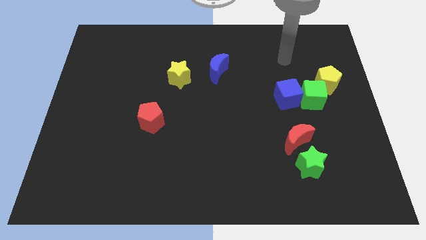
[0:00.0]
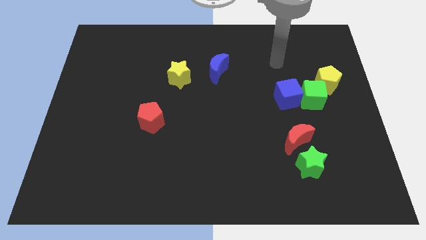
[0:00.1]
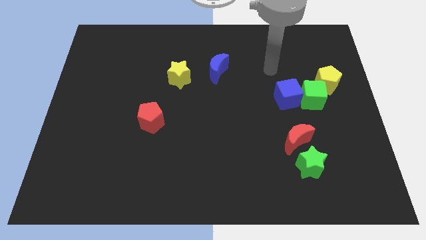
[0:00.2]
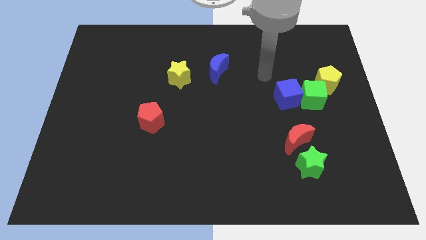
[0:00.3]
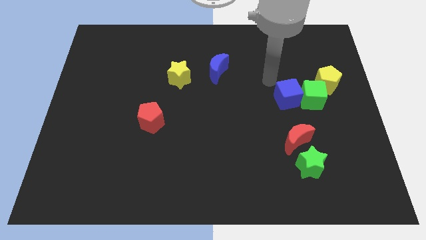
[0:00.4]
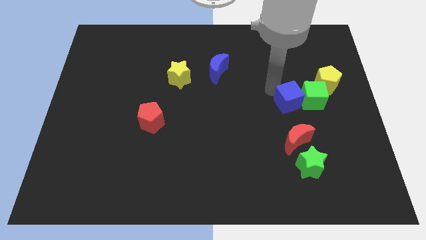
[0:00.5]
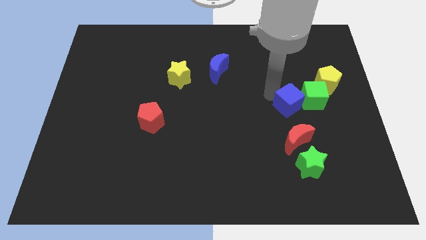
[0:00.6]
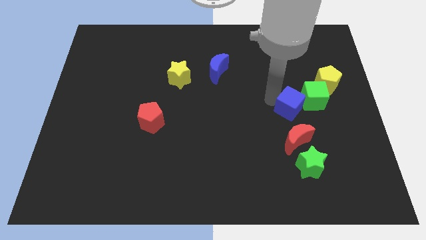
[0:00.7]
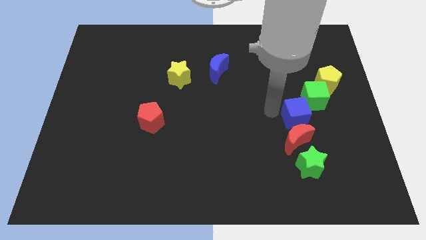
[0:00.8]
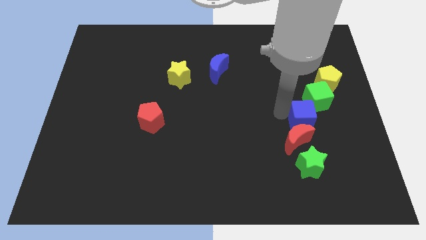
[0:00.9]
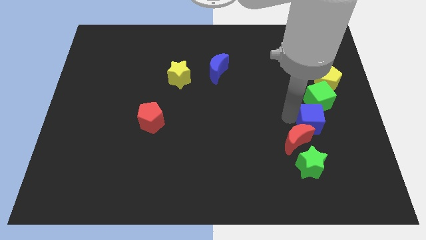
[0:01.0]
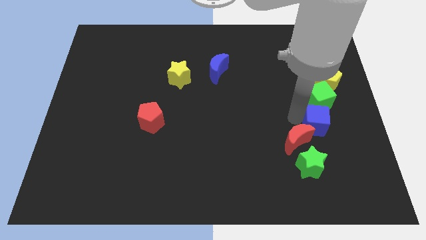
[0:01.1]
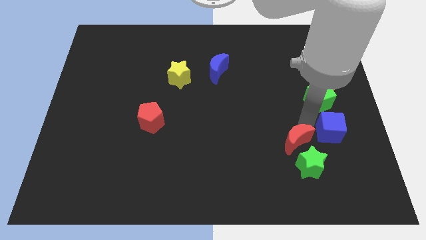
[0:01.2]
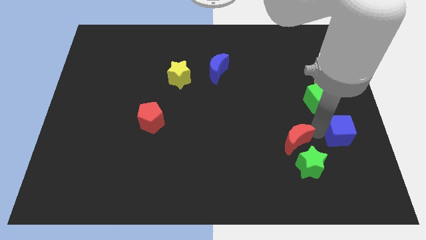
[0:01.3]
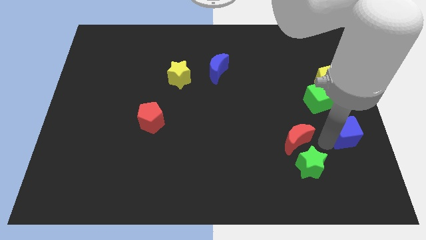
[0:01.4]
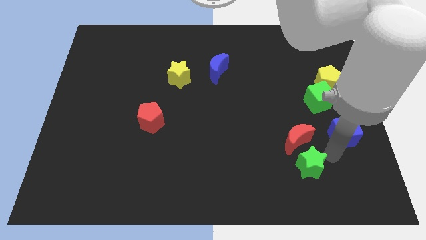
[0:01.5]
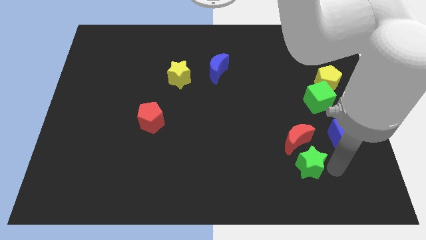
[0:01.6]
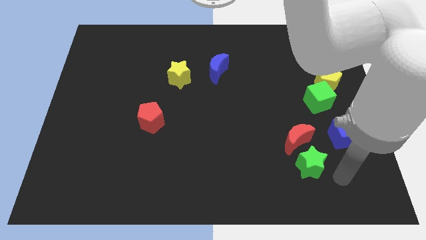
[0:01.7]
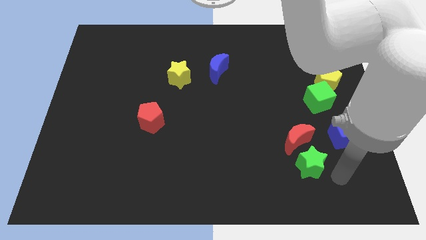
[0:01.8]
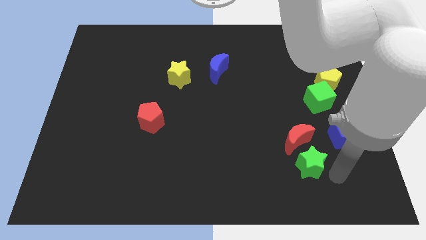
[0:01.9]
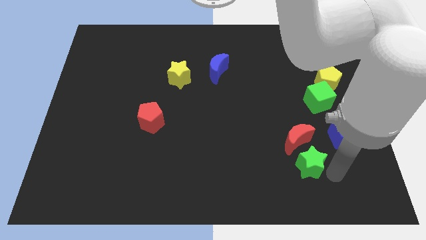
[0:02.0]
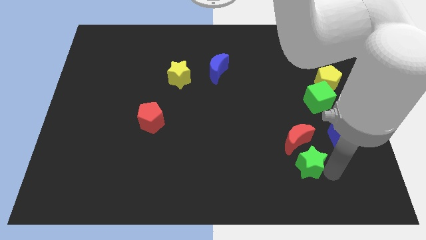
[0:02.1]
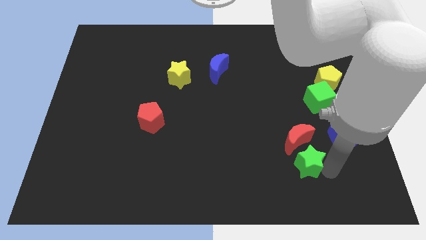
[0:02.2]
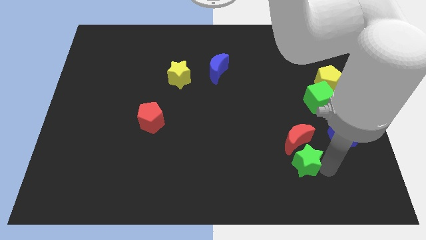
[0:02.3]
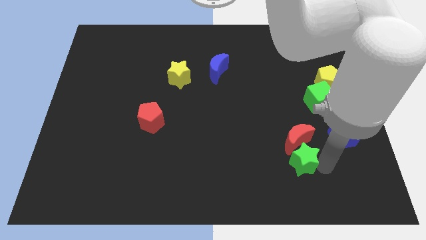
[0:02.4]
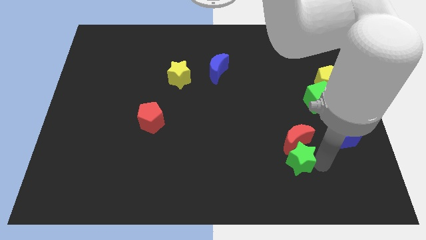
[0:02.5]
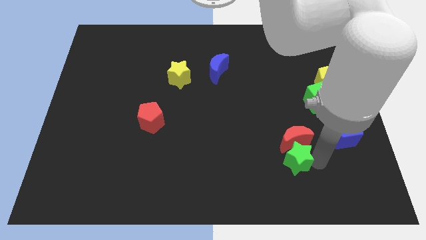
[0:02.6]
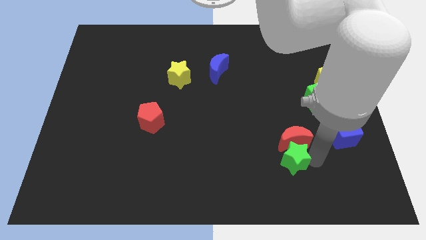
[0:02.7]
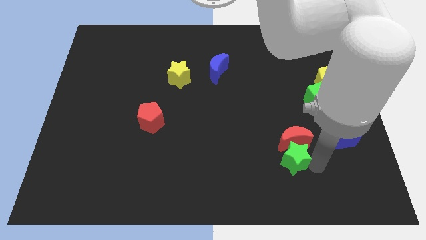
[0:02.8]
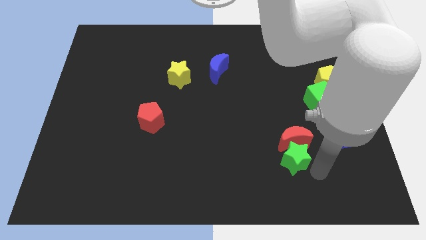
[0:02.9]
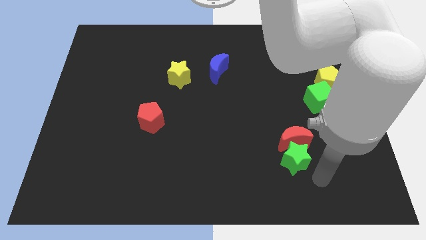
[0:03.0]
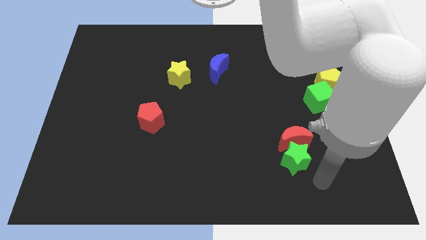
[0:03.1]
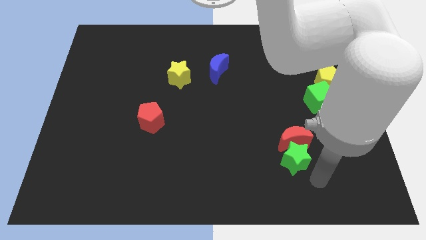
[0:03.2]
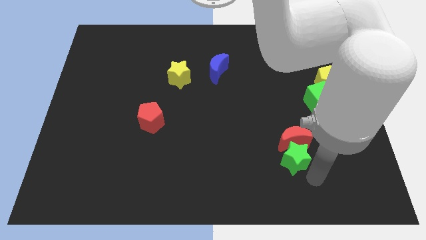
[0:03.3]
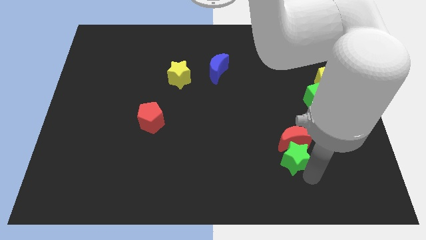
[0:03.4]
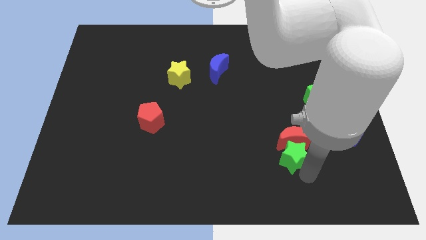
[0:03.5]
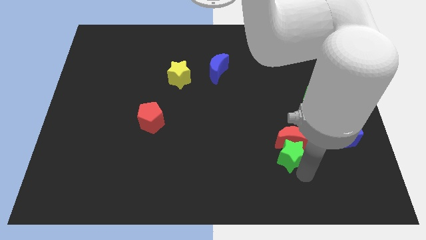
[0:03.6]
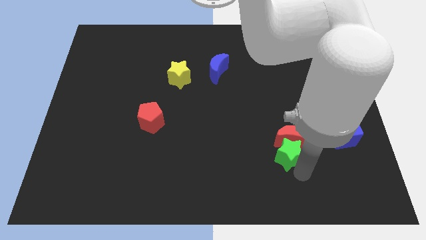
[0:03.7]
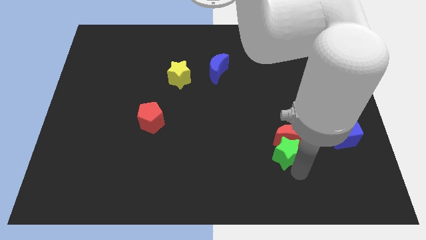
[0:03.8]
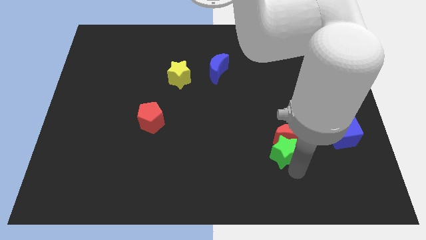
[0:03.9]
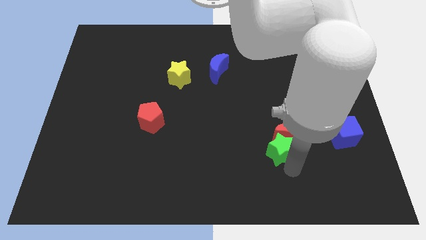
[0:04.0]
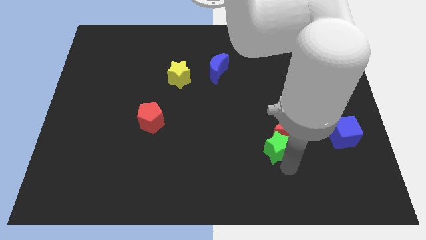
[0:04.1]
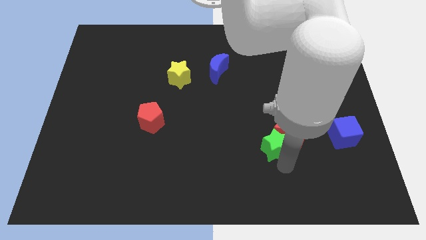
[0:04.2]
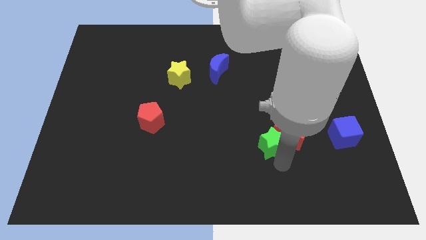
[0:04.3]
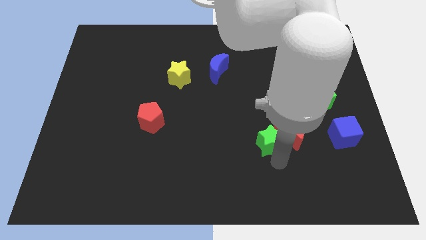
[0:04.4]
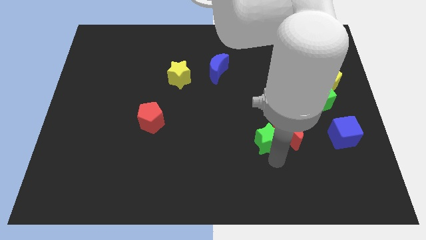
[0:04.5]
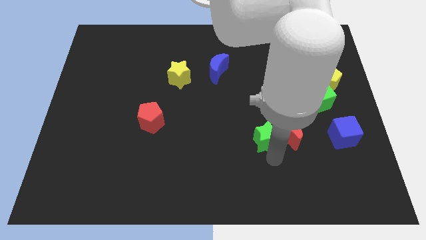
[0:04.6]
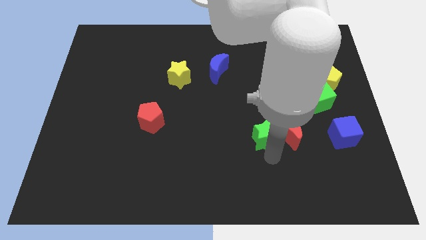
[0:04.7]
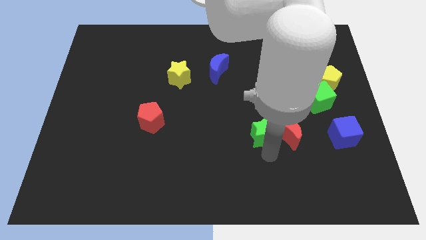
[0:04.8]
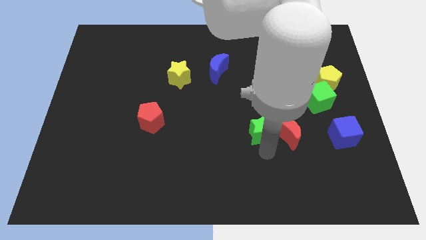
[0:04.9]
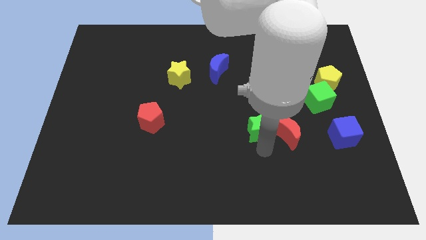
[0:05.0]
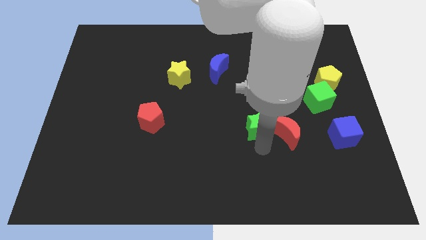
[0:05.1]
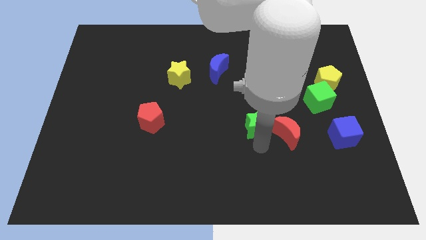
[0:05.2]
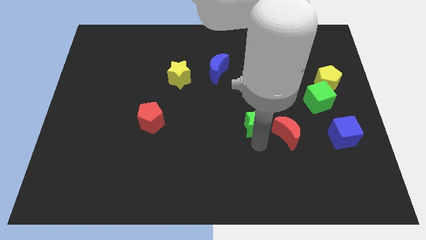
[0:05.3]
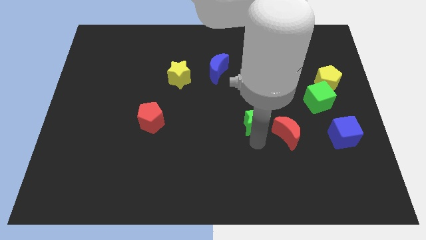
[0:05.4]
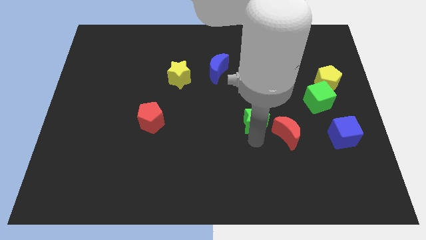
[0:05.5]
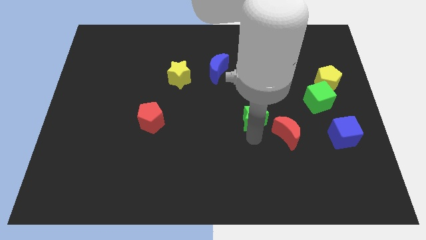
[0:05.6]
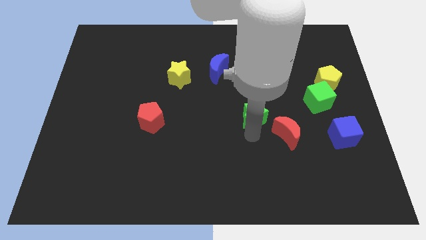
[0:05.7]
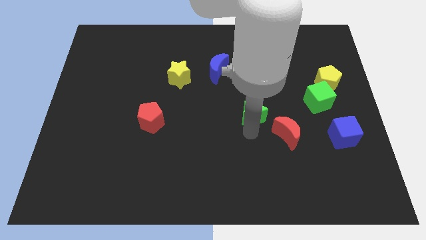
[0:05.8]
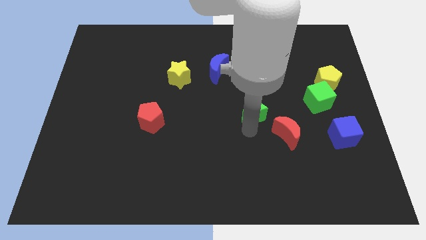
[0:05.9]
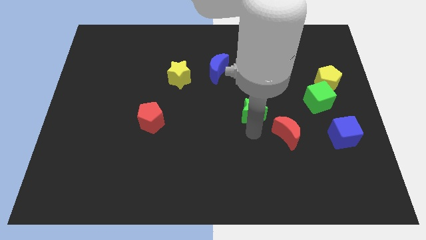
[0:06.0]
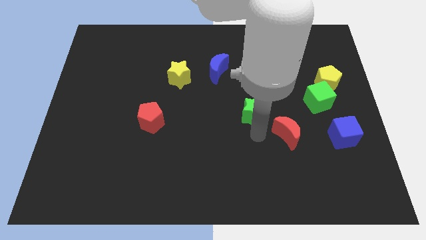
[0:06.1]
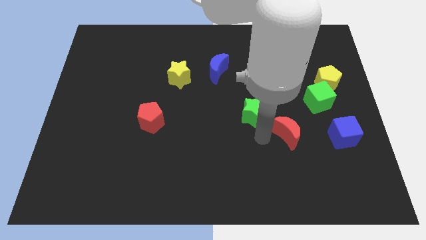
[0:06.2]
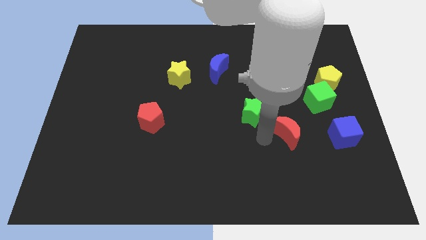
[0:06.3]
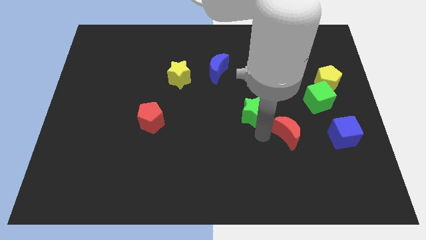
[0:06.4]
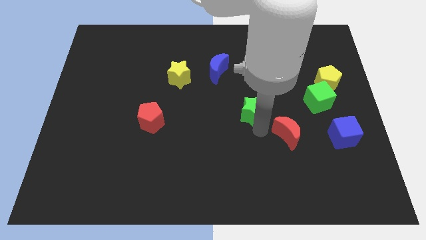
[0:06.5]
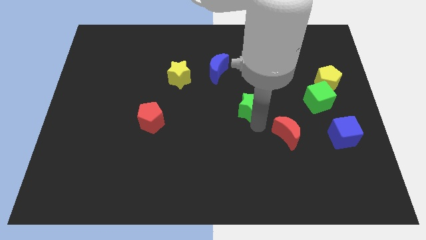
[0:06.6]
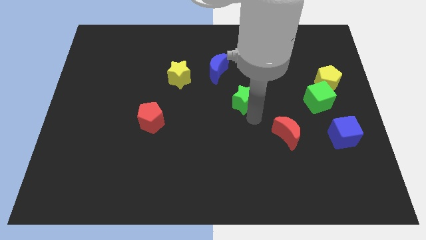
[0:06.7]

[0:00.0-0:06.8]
push the green star diagonally down and to the right of the blue moon
